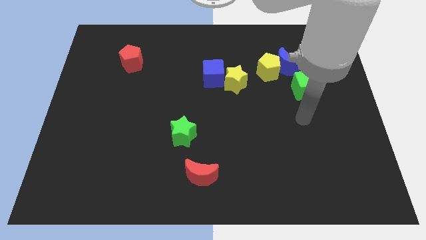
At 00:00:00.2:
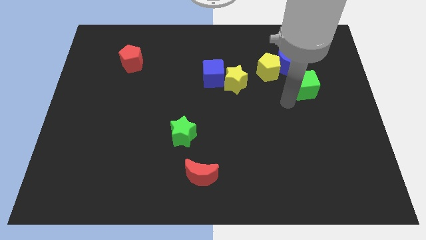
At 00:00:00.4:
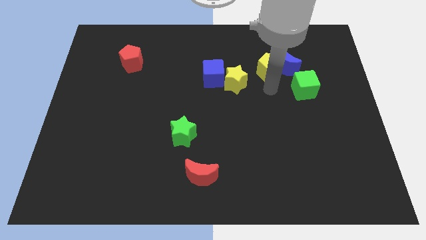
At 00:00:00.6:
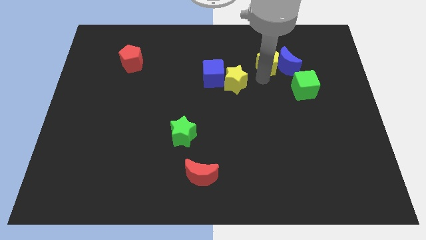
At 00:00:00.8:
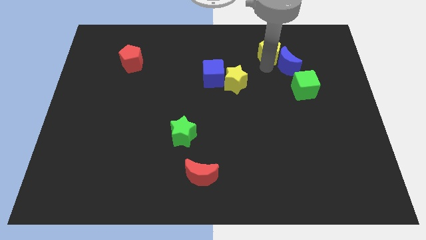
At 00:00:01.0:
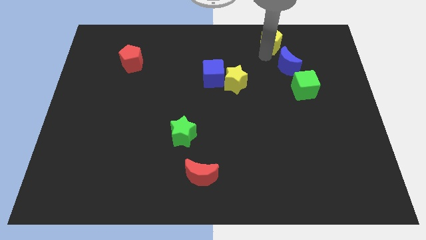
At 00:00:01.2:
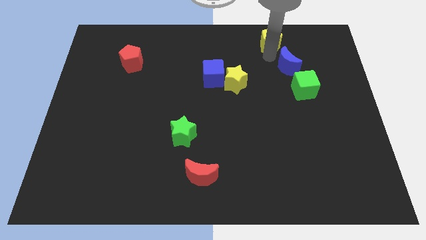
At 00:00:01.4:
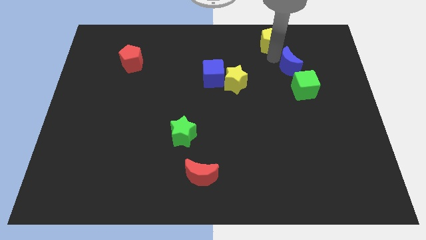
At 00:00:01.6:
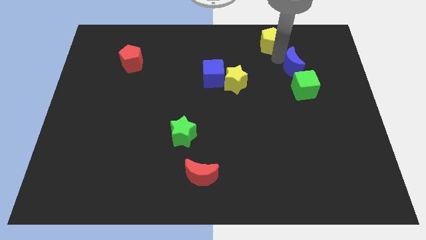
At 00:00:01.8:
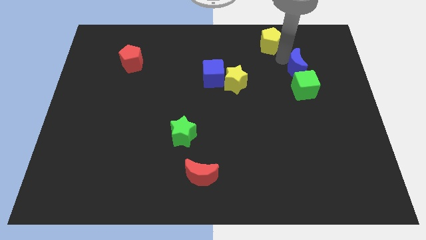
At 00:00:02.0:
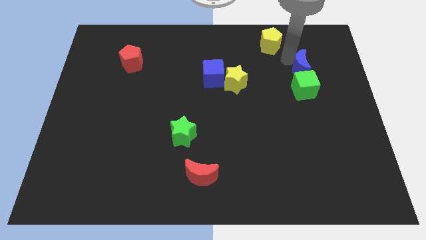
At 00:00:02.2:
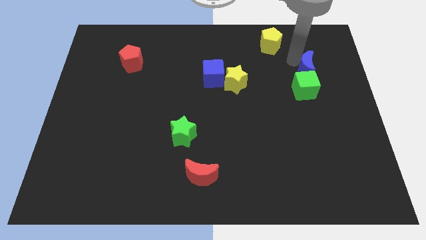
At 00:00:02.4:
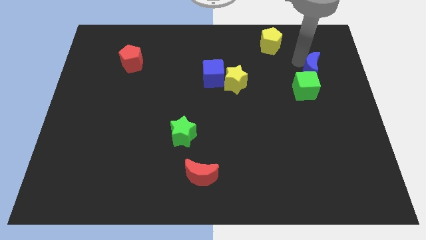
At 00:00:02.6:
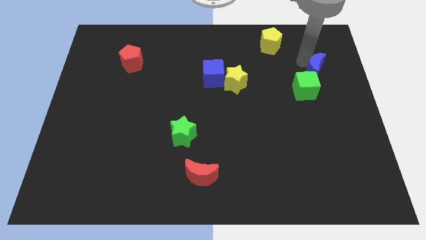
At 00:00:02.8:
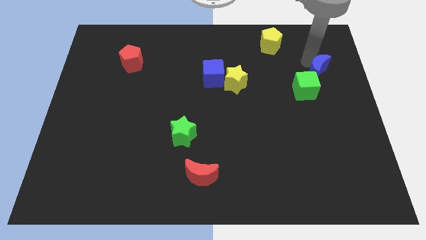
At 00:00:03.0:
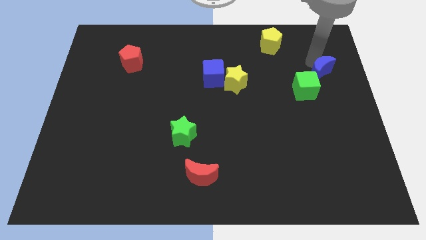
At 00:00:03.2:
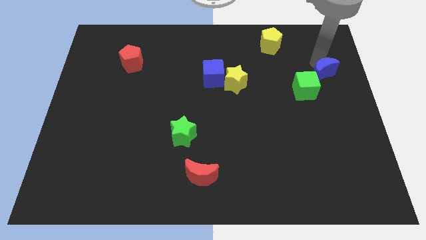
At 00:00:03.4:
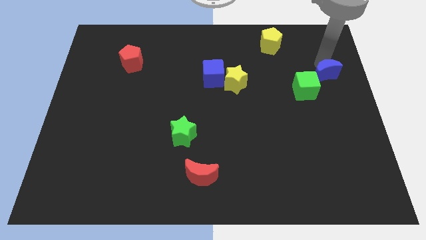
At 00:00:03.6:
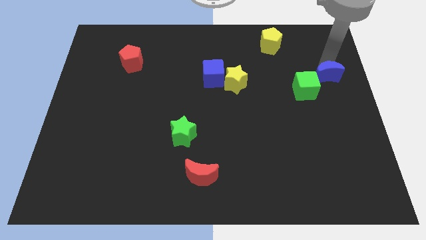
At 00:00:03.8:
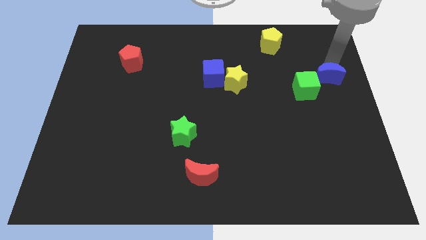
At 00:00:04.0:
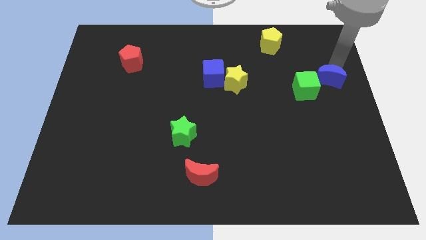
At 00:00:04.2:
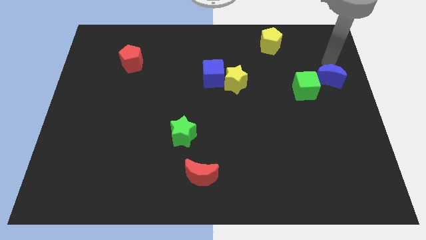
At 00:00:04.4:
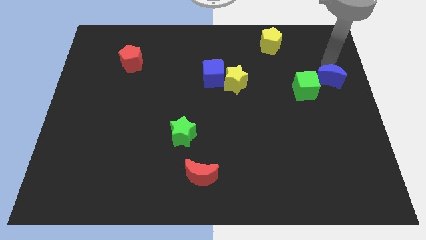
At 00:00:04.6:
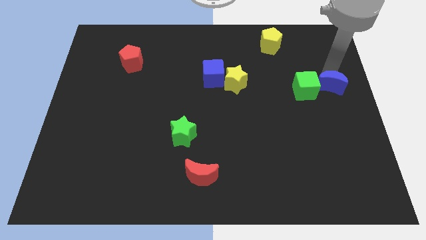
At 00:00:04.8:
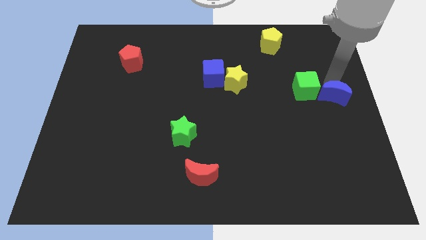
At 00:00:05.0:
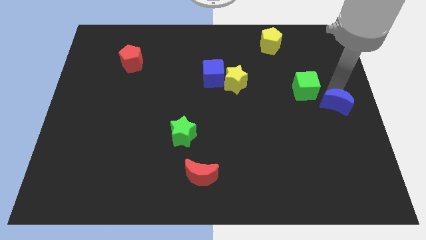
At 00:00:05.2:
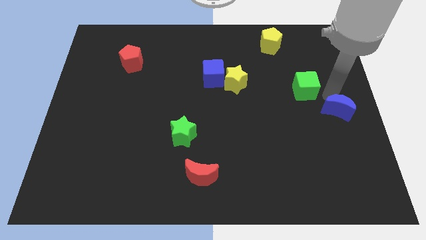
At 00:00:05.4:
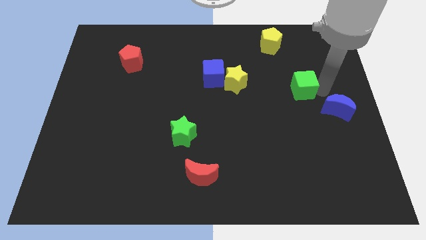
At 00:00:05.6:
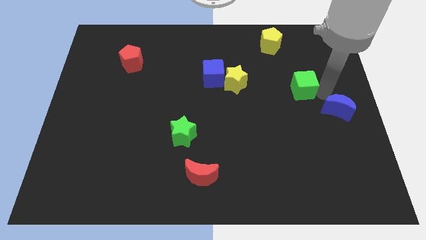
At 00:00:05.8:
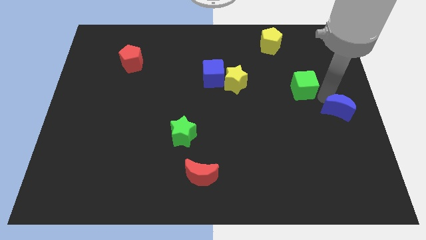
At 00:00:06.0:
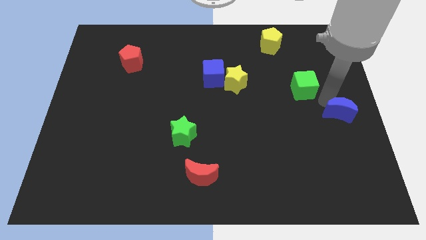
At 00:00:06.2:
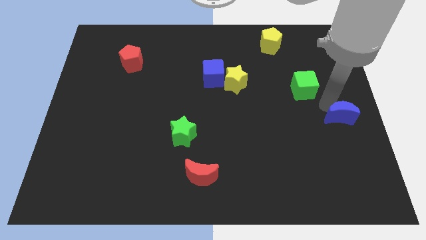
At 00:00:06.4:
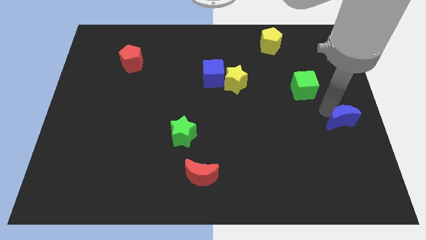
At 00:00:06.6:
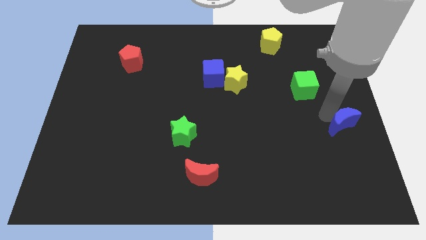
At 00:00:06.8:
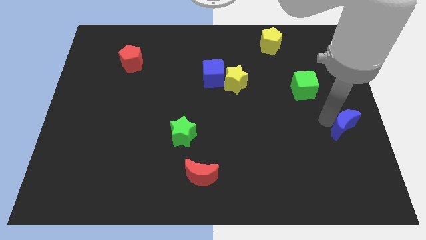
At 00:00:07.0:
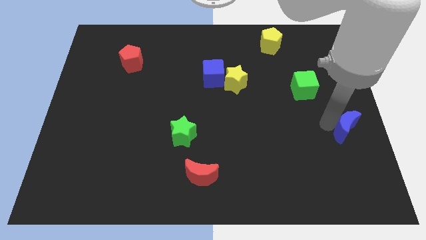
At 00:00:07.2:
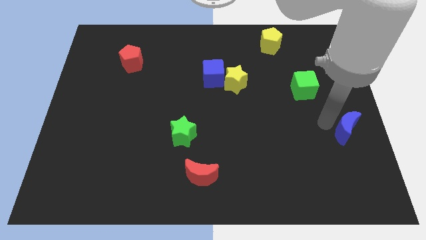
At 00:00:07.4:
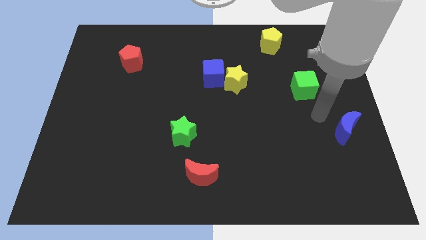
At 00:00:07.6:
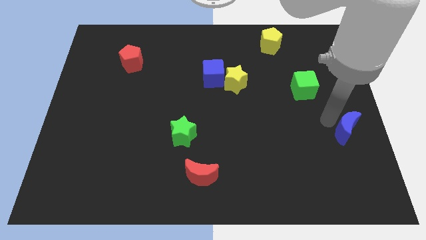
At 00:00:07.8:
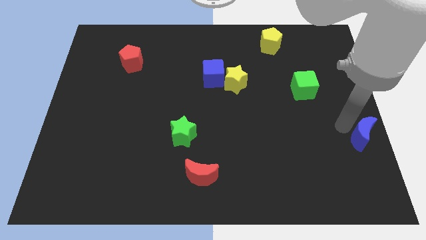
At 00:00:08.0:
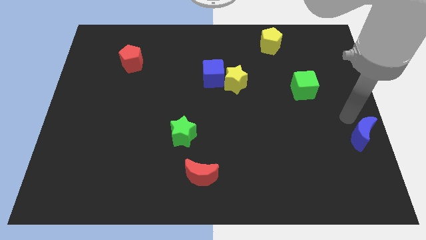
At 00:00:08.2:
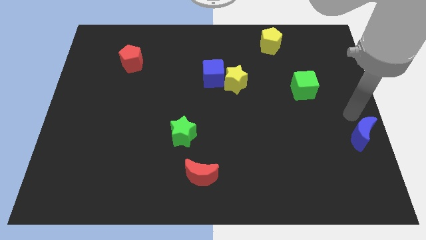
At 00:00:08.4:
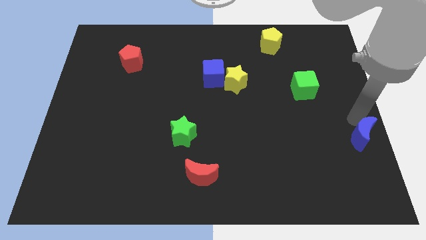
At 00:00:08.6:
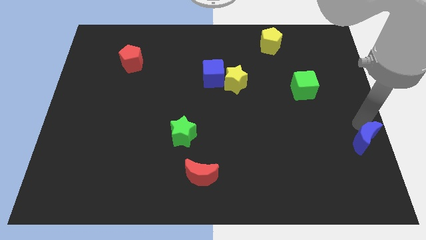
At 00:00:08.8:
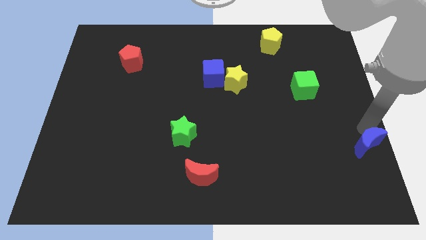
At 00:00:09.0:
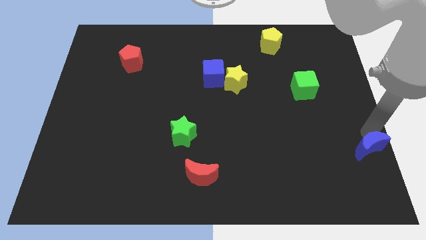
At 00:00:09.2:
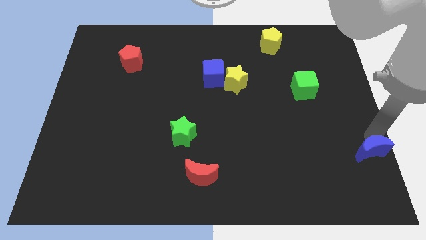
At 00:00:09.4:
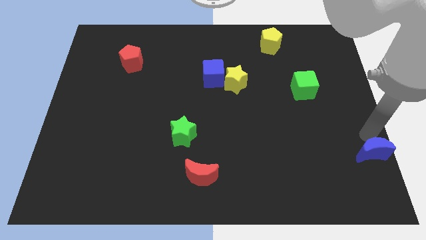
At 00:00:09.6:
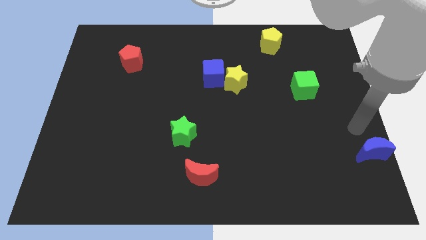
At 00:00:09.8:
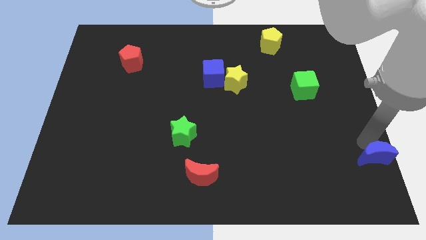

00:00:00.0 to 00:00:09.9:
put the blue moon to the lower right corner
